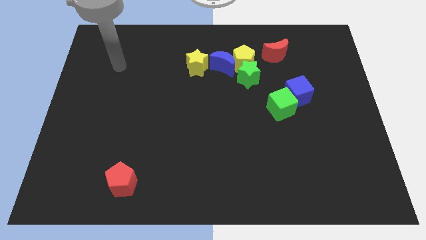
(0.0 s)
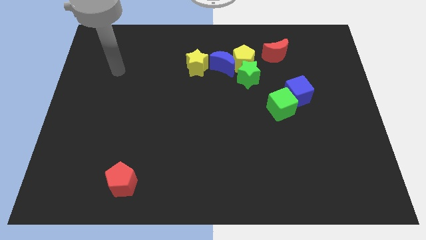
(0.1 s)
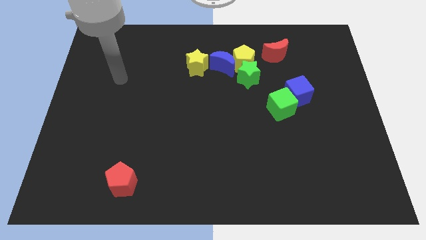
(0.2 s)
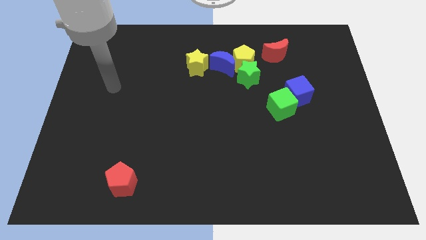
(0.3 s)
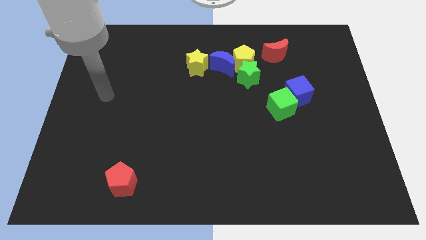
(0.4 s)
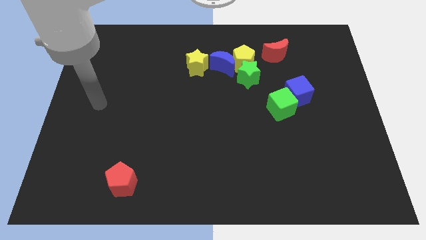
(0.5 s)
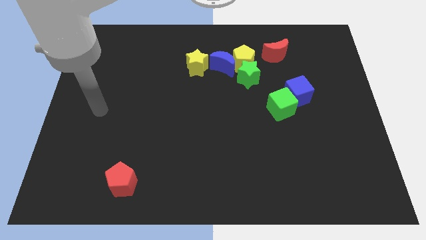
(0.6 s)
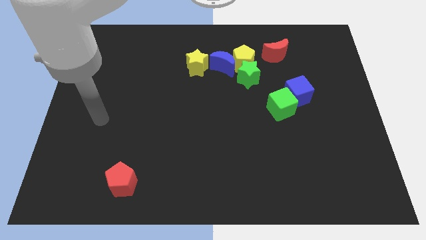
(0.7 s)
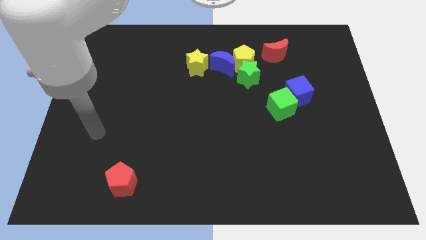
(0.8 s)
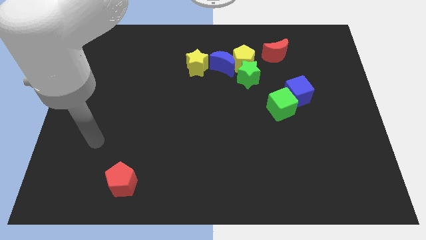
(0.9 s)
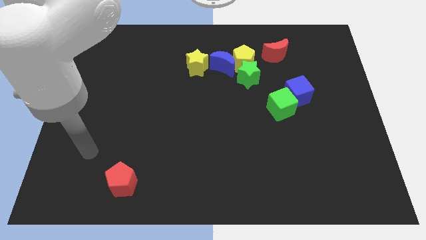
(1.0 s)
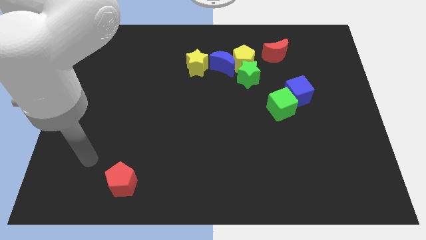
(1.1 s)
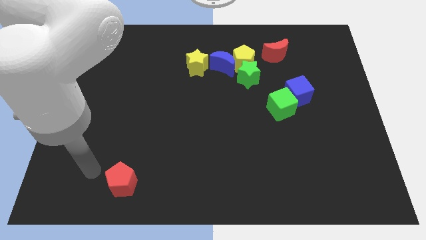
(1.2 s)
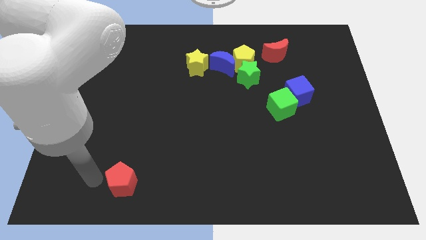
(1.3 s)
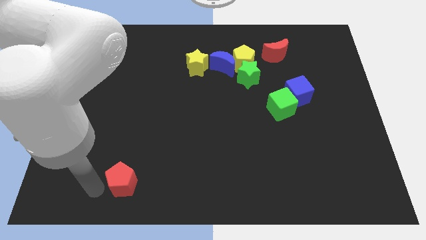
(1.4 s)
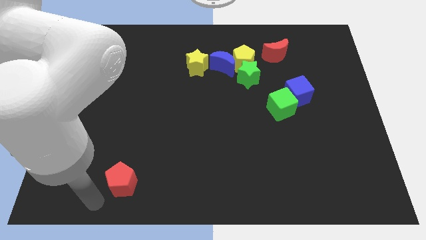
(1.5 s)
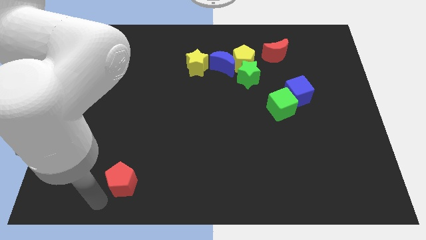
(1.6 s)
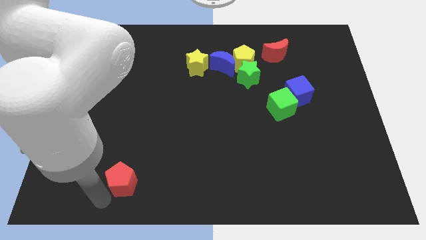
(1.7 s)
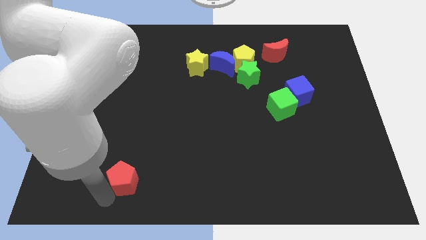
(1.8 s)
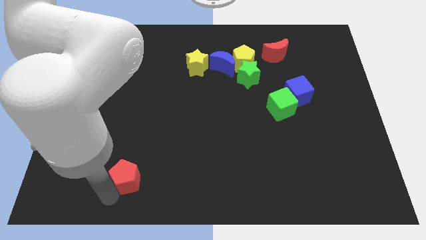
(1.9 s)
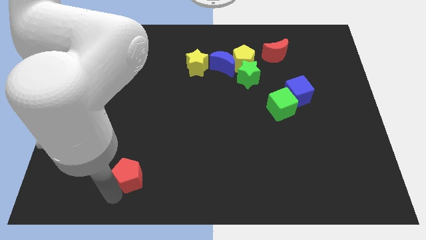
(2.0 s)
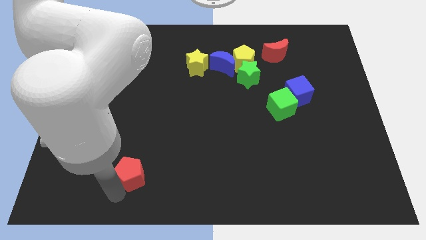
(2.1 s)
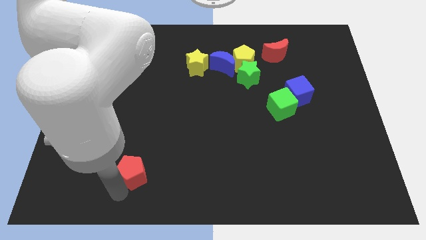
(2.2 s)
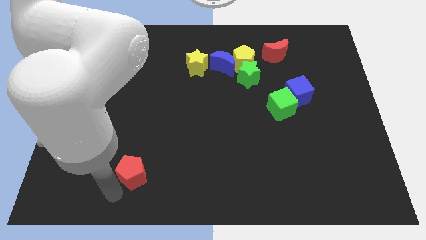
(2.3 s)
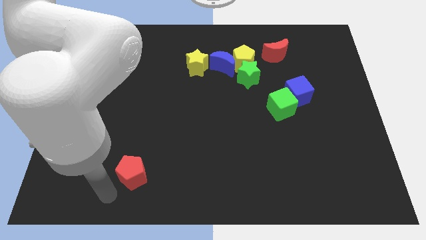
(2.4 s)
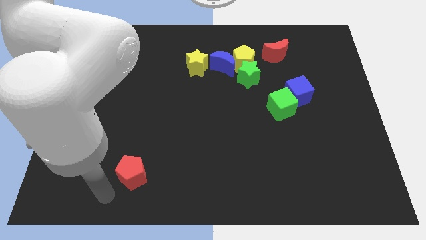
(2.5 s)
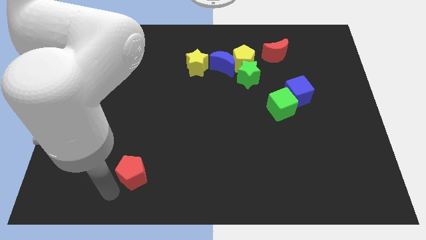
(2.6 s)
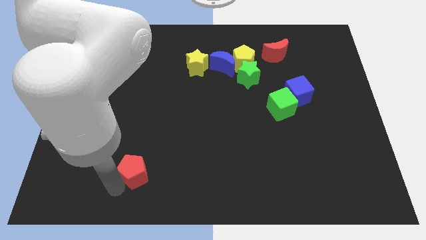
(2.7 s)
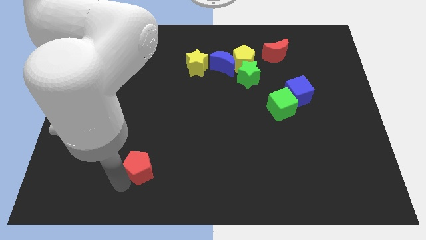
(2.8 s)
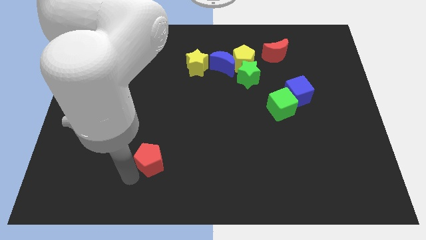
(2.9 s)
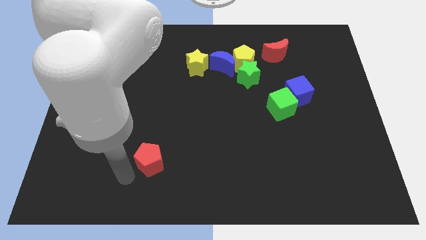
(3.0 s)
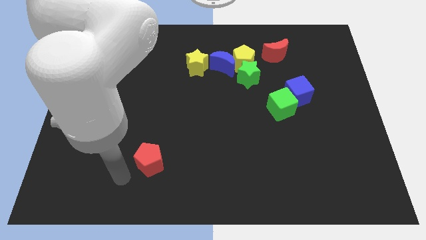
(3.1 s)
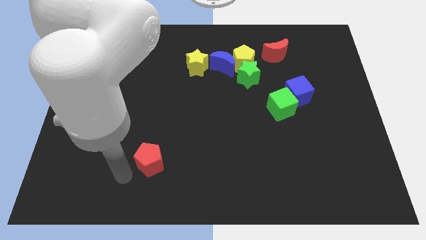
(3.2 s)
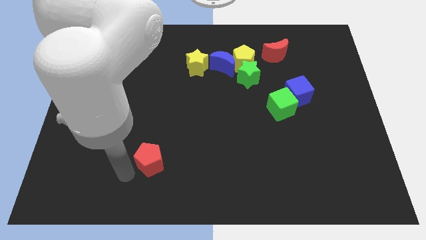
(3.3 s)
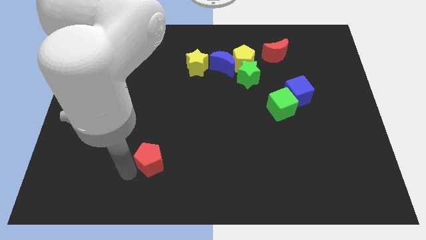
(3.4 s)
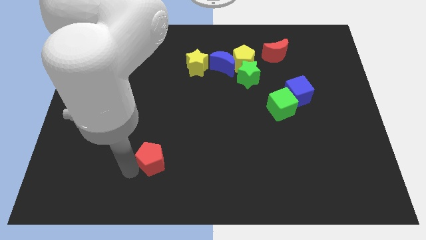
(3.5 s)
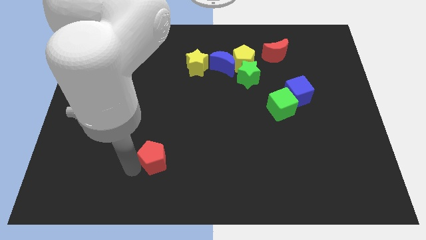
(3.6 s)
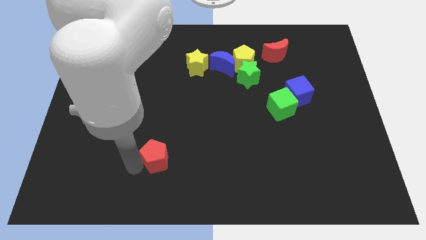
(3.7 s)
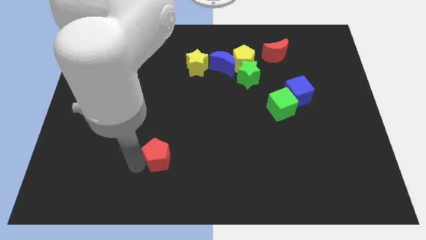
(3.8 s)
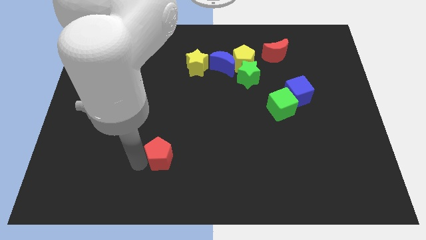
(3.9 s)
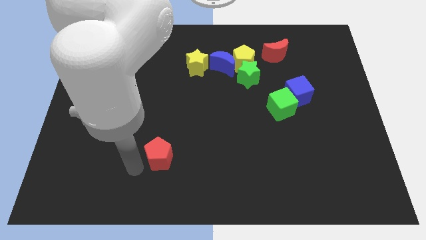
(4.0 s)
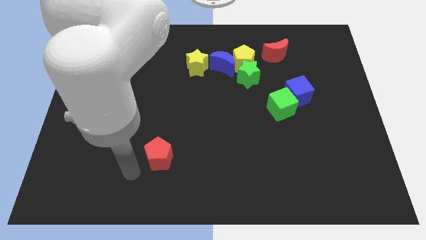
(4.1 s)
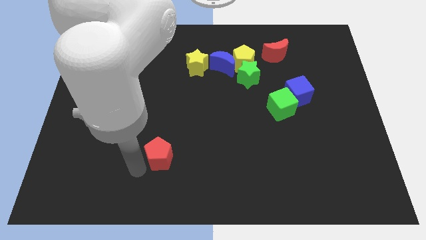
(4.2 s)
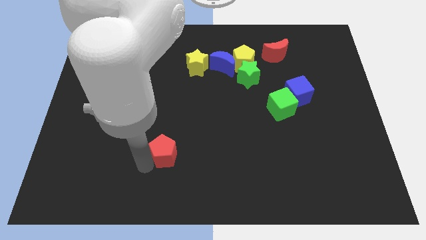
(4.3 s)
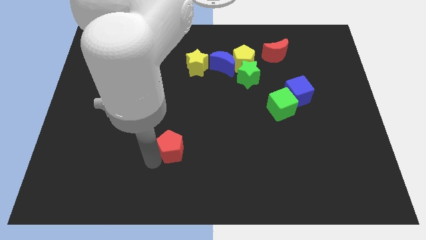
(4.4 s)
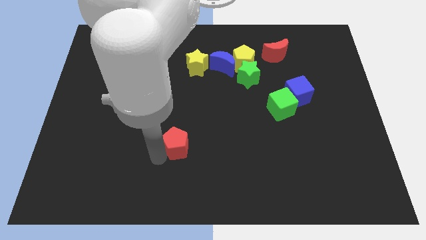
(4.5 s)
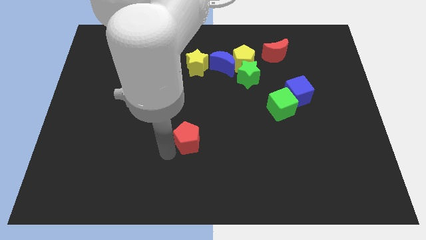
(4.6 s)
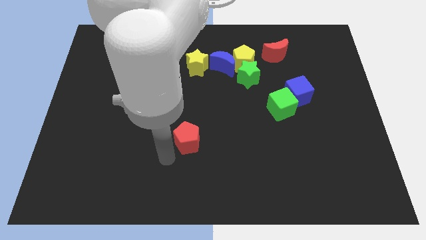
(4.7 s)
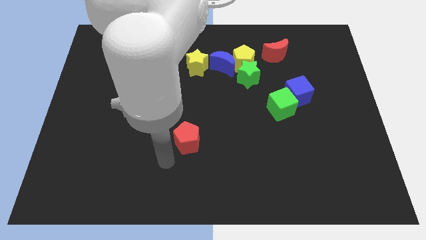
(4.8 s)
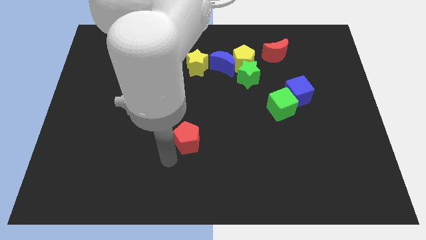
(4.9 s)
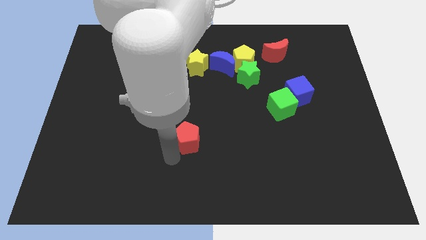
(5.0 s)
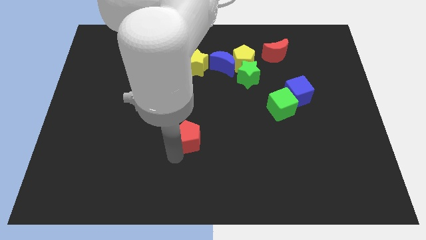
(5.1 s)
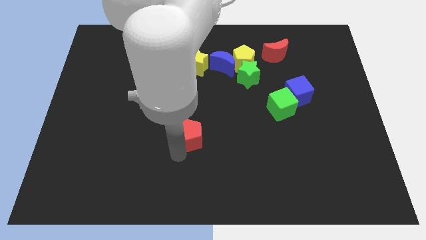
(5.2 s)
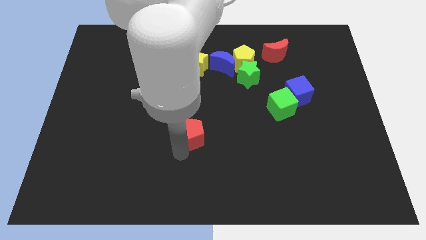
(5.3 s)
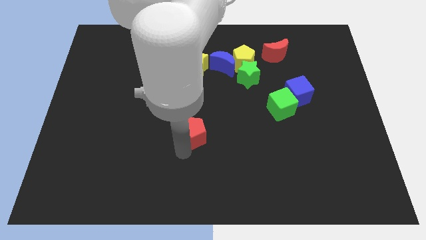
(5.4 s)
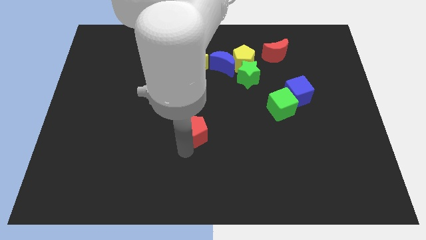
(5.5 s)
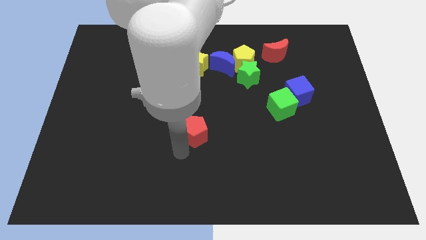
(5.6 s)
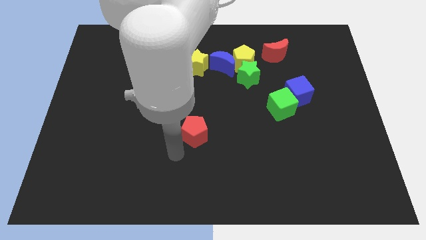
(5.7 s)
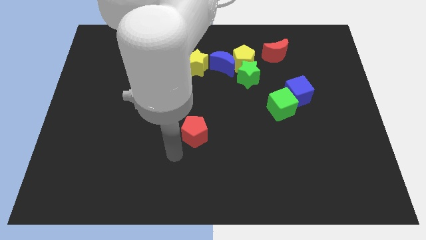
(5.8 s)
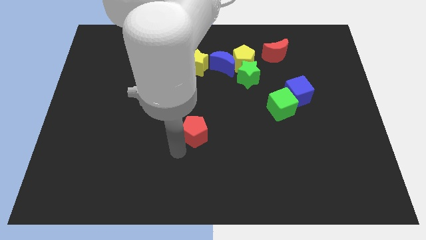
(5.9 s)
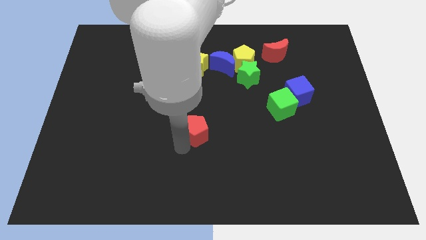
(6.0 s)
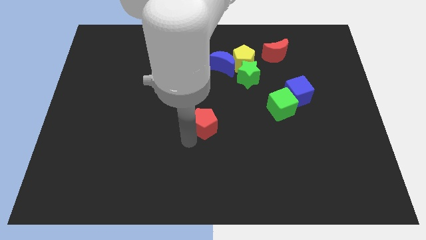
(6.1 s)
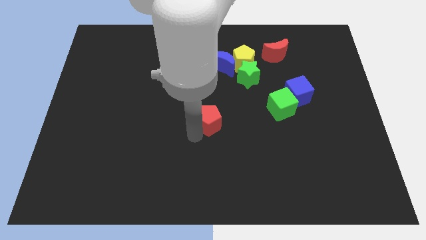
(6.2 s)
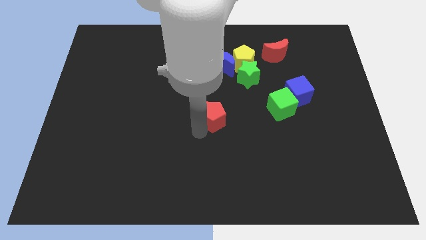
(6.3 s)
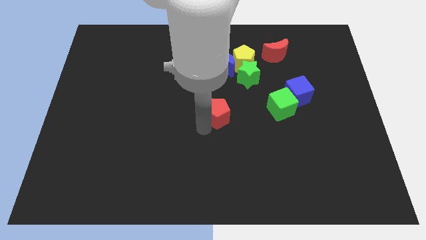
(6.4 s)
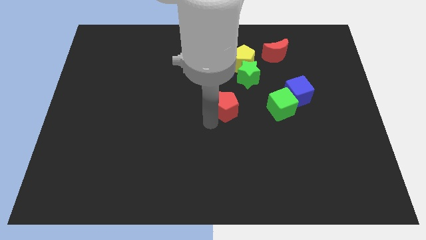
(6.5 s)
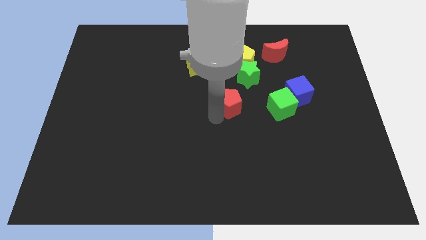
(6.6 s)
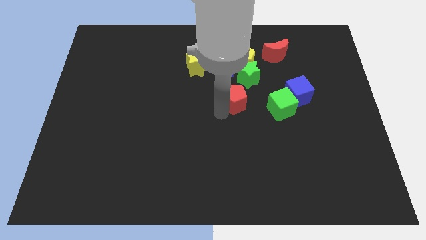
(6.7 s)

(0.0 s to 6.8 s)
push the red pentagon to the bottom of the yellow pentagon
